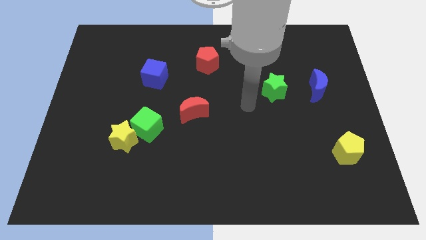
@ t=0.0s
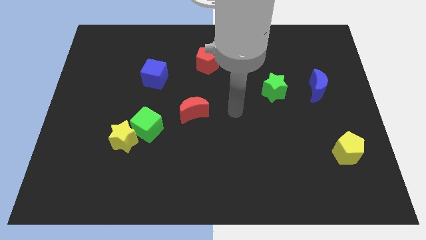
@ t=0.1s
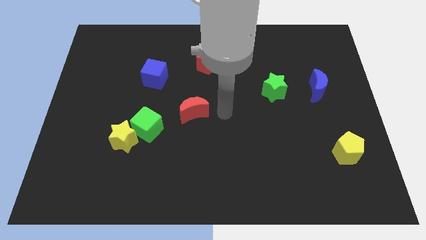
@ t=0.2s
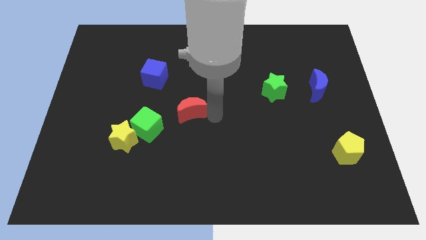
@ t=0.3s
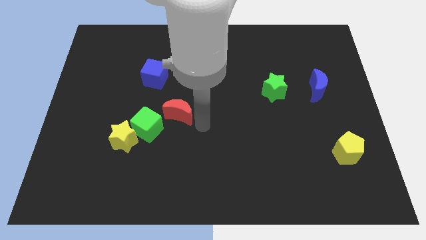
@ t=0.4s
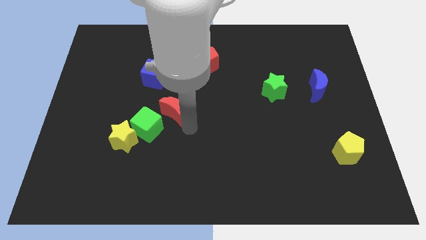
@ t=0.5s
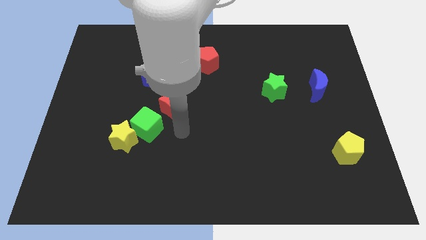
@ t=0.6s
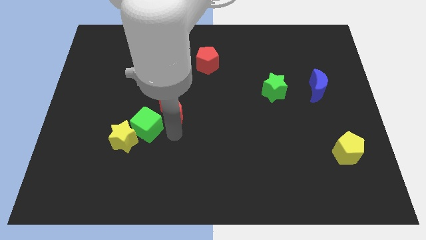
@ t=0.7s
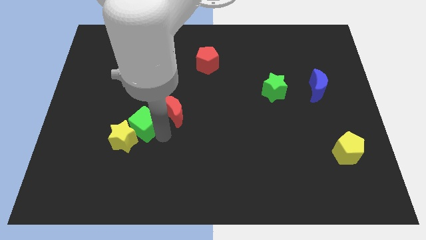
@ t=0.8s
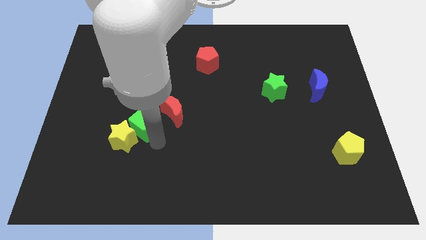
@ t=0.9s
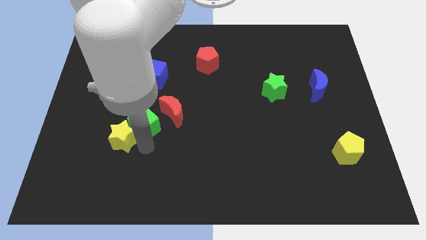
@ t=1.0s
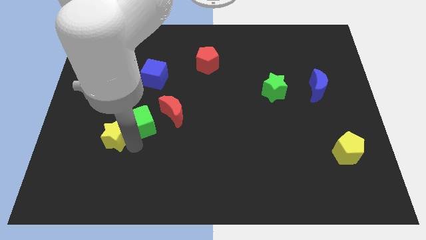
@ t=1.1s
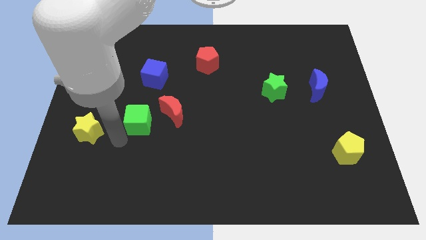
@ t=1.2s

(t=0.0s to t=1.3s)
move the green cube away from the yellow star

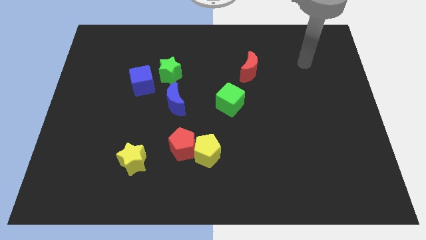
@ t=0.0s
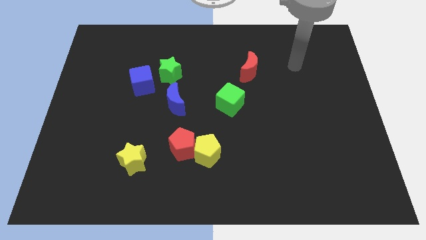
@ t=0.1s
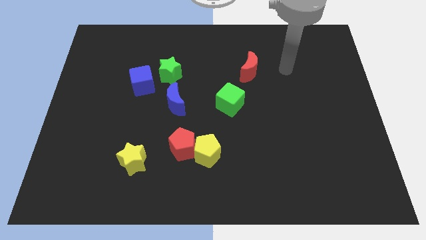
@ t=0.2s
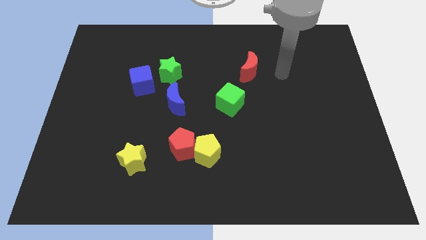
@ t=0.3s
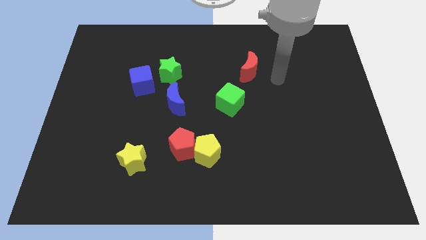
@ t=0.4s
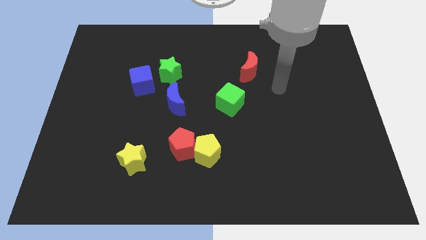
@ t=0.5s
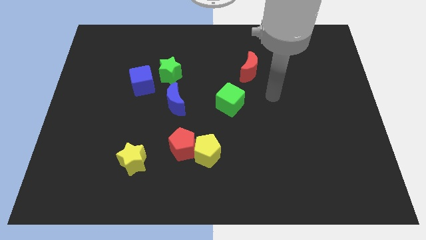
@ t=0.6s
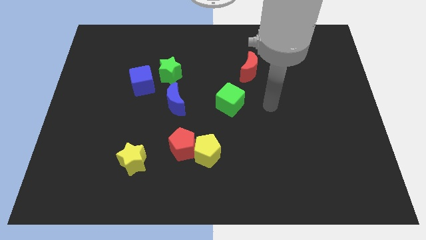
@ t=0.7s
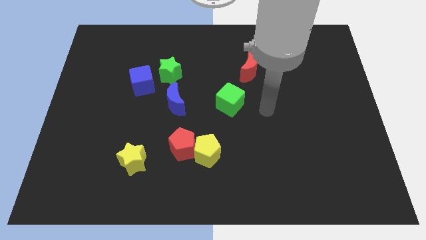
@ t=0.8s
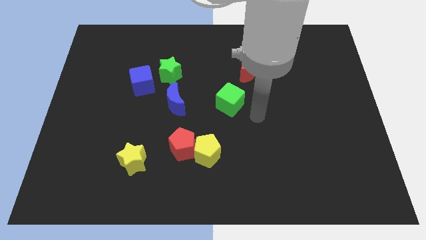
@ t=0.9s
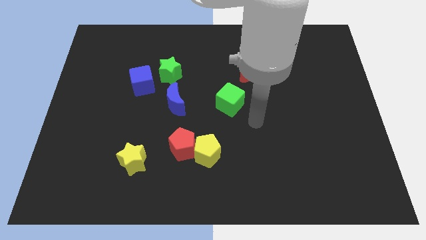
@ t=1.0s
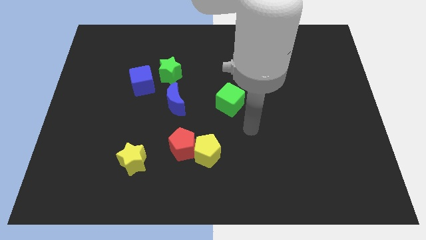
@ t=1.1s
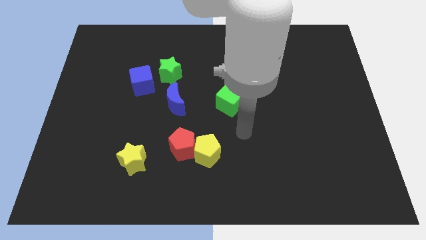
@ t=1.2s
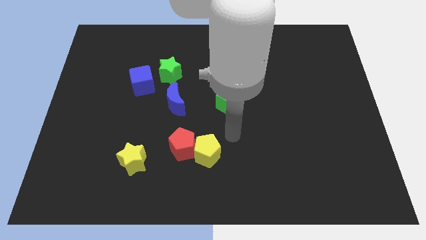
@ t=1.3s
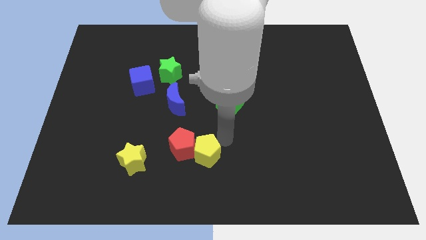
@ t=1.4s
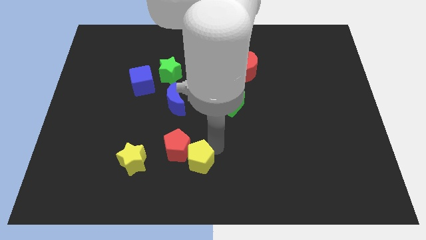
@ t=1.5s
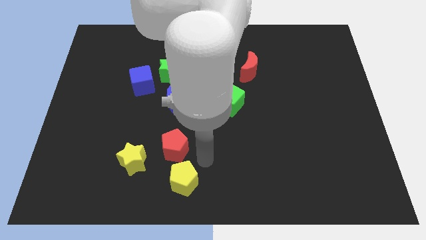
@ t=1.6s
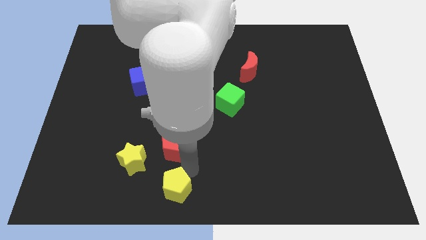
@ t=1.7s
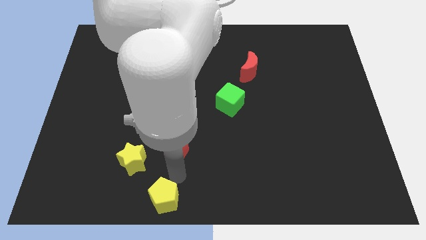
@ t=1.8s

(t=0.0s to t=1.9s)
move the red pentagon away from the yellow pentagon

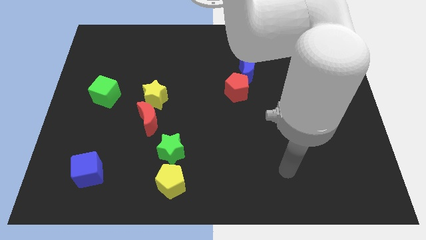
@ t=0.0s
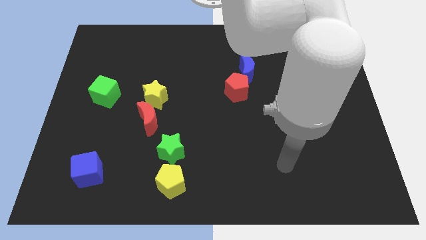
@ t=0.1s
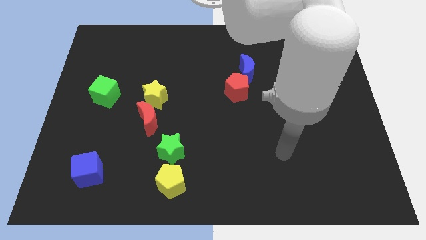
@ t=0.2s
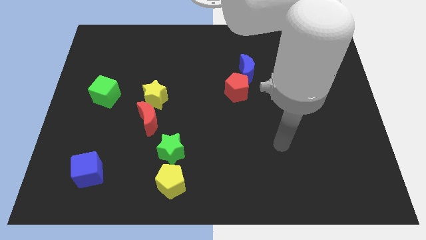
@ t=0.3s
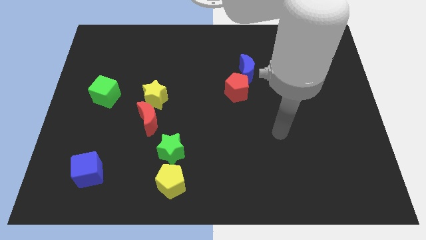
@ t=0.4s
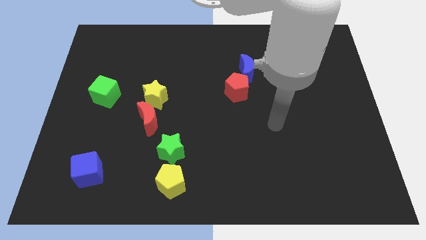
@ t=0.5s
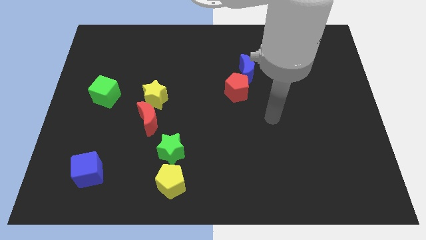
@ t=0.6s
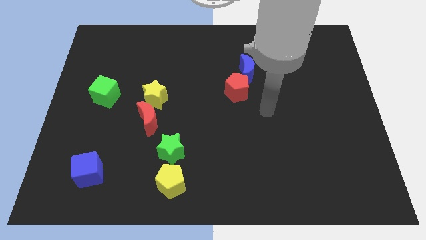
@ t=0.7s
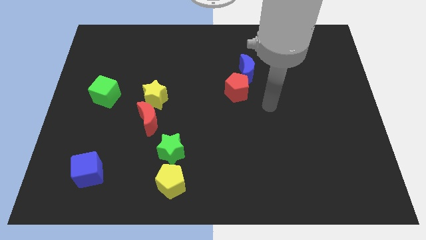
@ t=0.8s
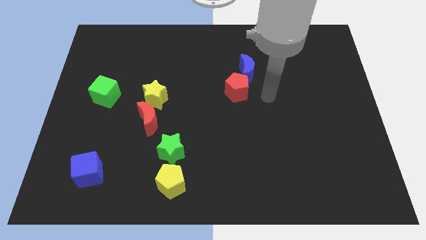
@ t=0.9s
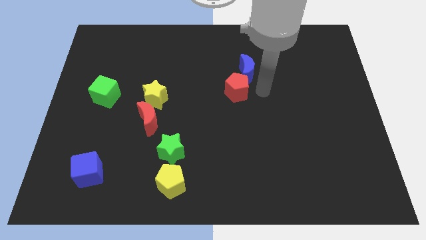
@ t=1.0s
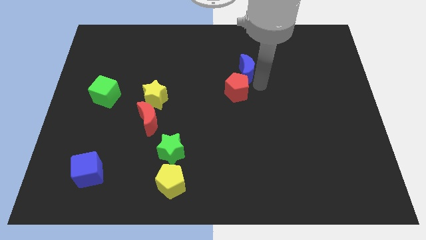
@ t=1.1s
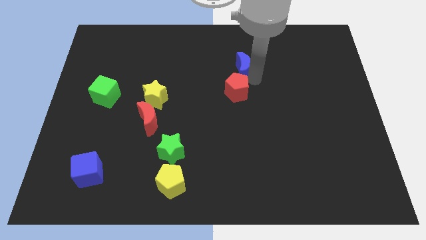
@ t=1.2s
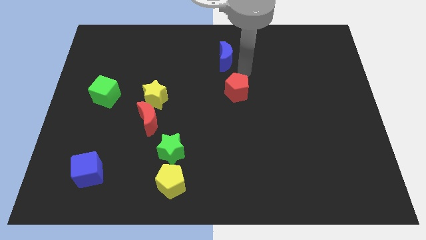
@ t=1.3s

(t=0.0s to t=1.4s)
pull the red pentagon apart from the blue moon

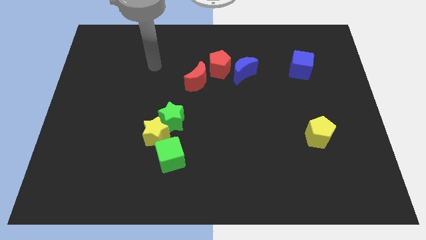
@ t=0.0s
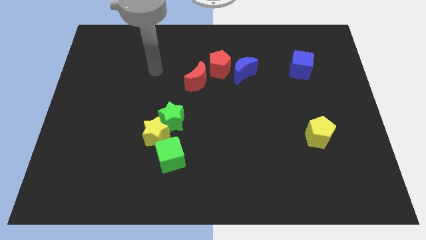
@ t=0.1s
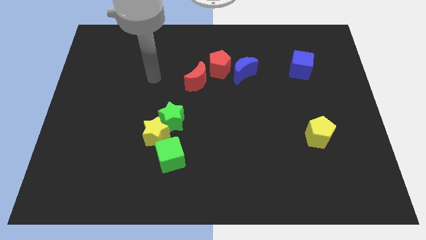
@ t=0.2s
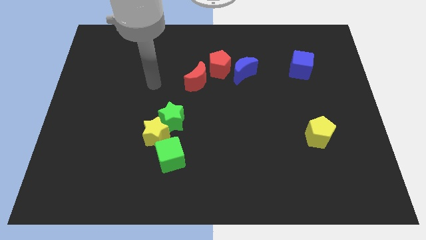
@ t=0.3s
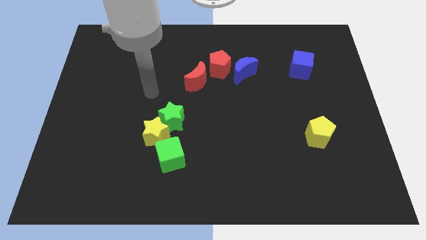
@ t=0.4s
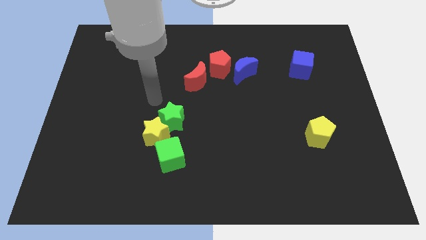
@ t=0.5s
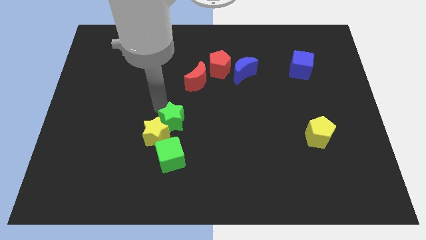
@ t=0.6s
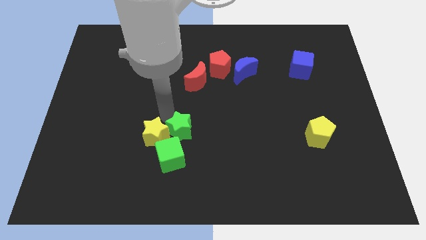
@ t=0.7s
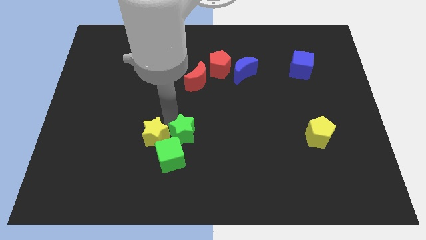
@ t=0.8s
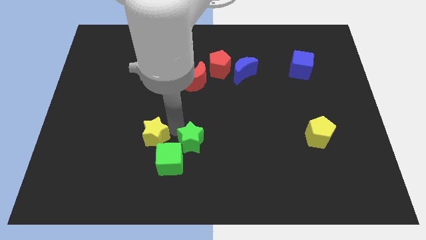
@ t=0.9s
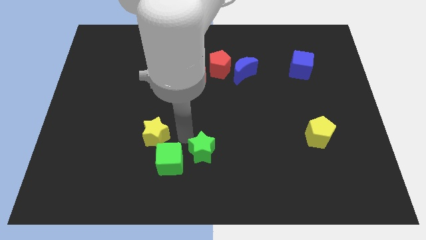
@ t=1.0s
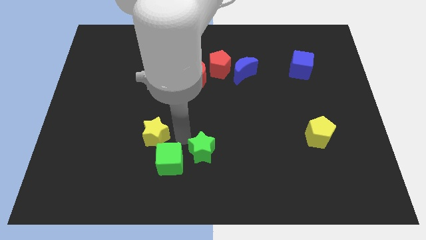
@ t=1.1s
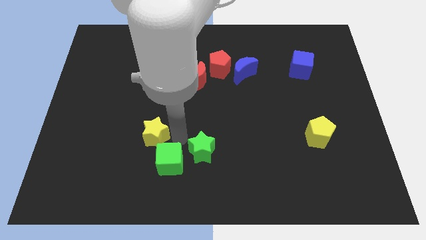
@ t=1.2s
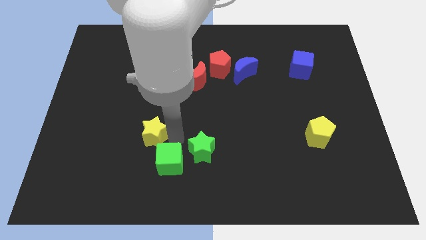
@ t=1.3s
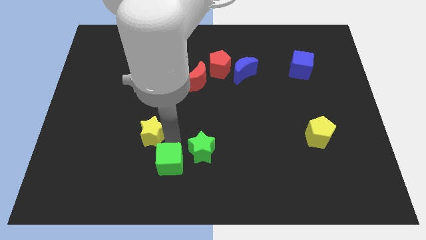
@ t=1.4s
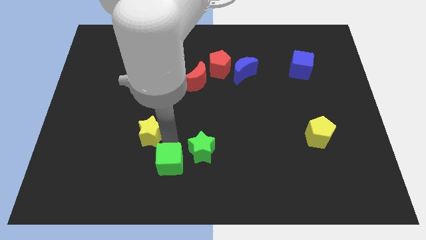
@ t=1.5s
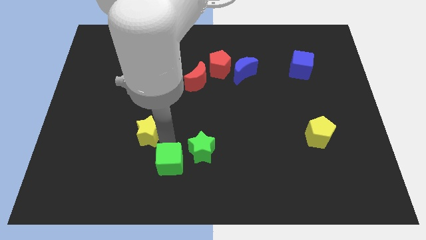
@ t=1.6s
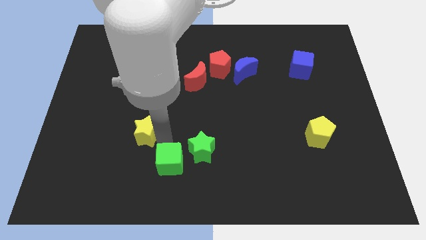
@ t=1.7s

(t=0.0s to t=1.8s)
move the yellow star away from the green star and green cube

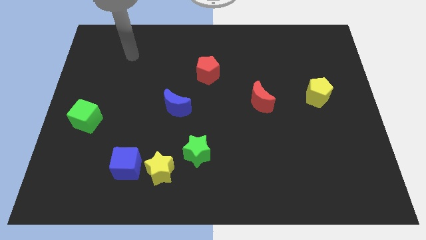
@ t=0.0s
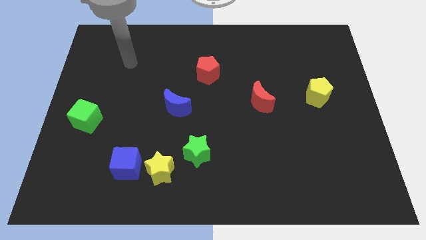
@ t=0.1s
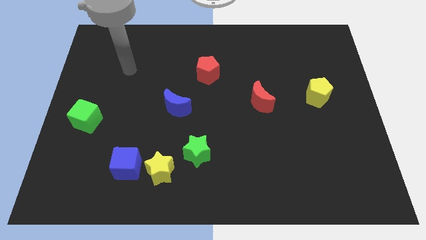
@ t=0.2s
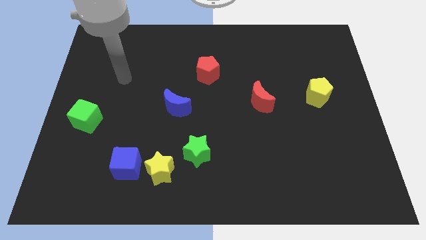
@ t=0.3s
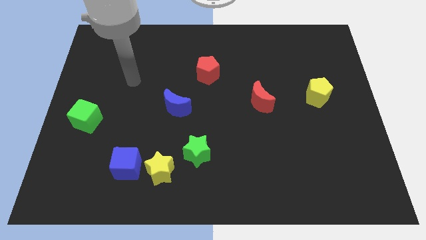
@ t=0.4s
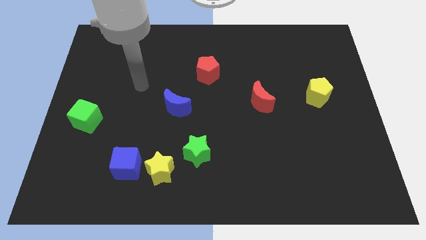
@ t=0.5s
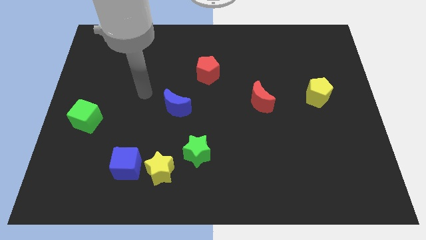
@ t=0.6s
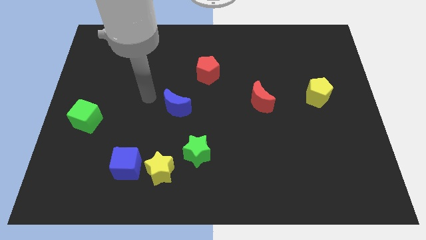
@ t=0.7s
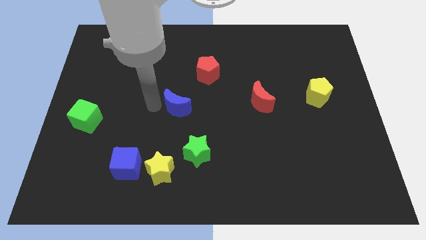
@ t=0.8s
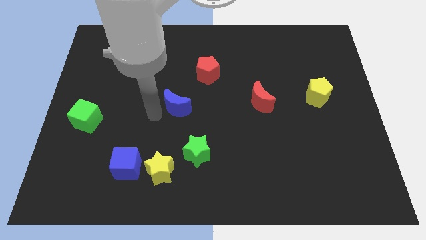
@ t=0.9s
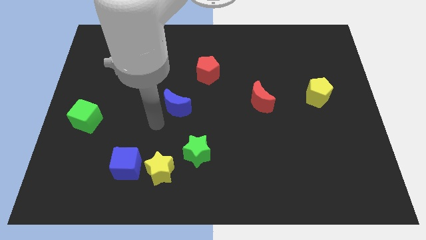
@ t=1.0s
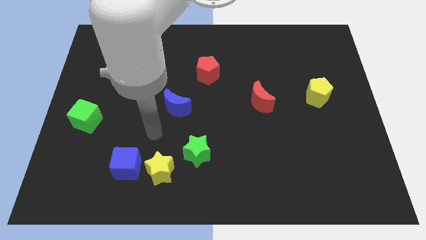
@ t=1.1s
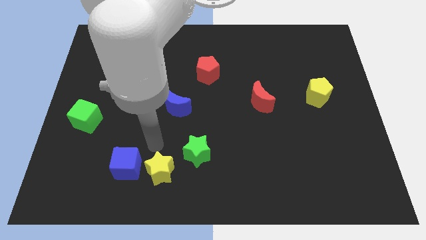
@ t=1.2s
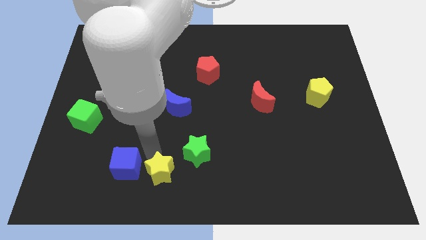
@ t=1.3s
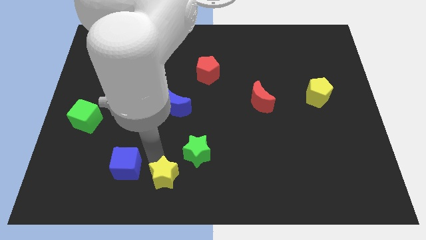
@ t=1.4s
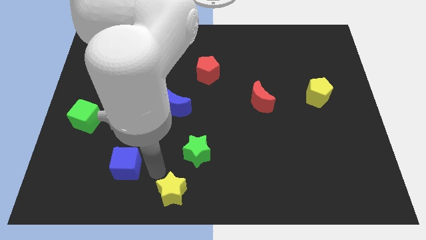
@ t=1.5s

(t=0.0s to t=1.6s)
move the blue cube away from the yellow star

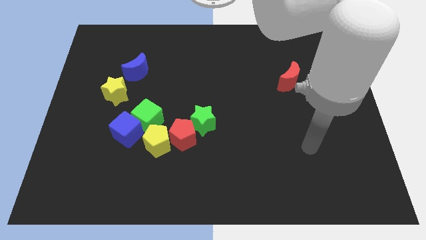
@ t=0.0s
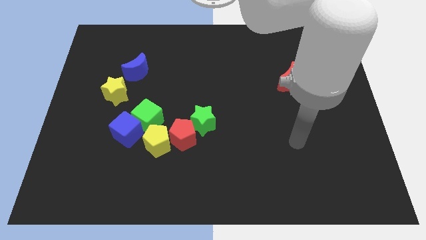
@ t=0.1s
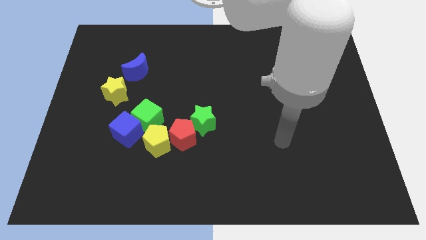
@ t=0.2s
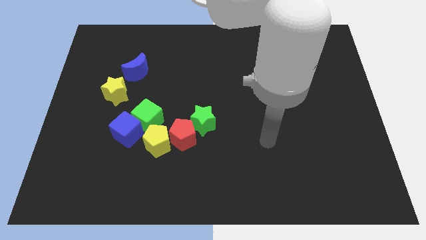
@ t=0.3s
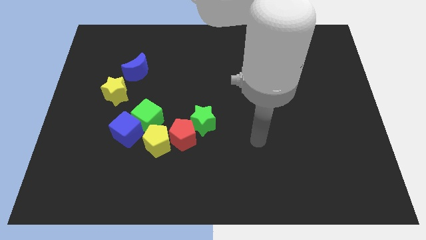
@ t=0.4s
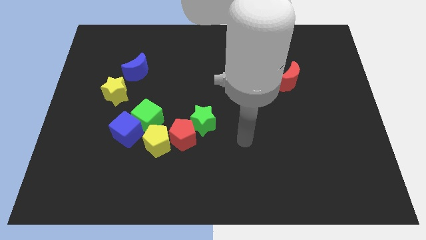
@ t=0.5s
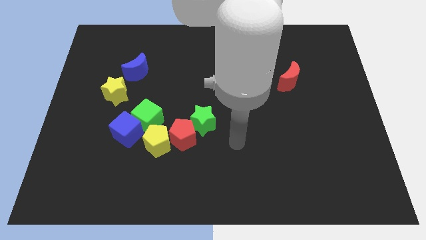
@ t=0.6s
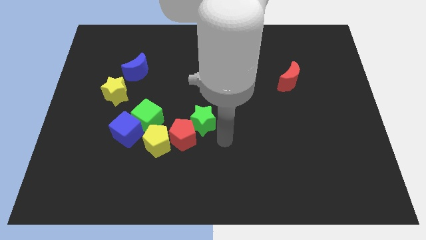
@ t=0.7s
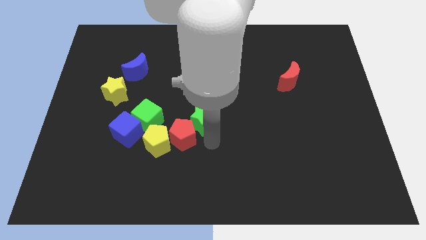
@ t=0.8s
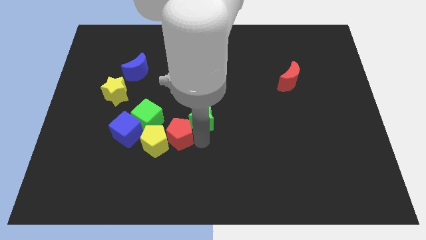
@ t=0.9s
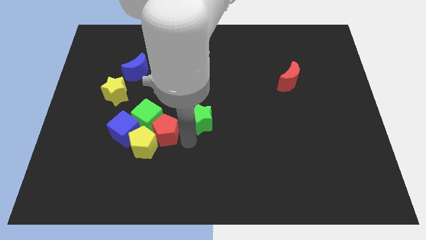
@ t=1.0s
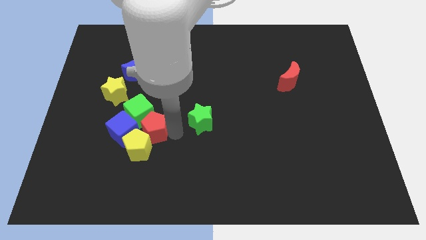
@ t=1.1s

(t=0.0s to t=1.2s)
pull the green star apart from the red pentagon

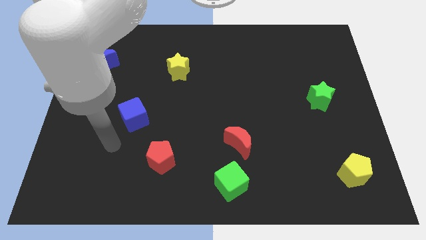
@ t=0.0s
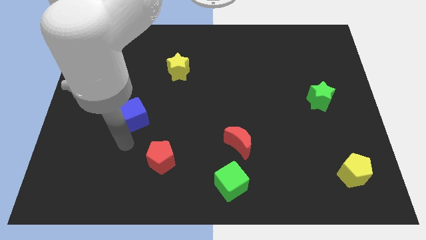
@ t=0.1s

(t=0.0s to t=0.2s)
separate the red moon from the green cube
